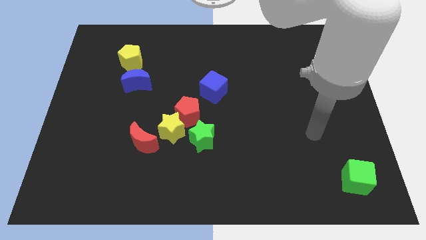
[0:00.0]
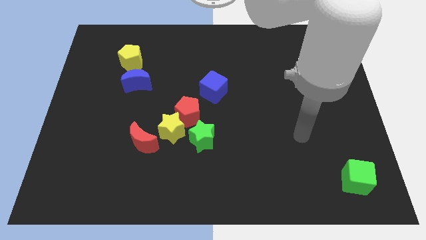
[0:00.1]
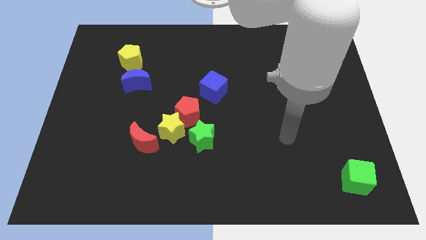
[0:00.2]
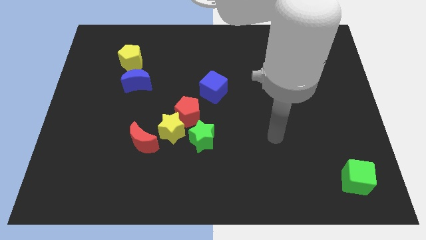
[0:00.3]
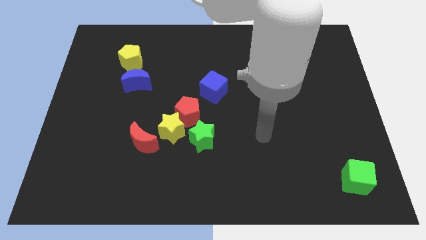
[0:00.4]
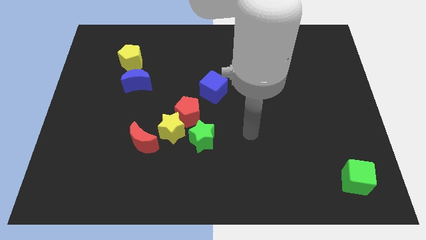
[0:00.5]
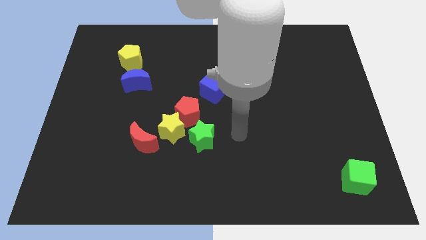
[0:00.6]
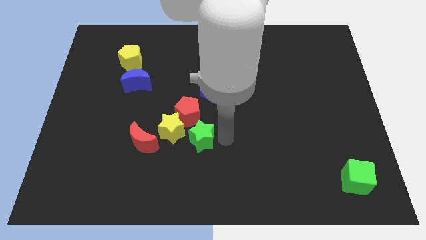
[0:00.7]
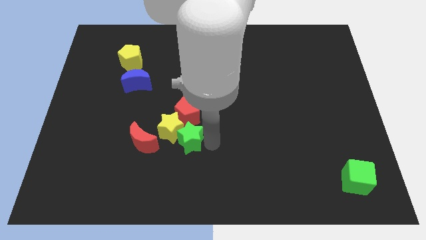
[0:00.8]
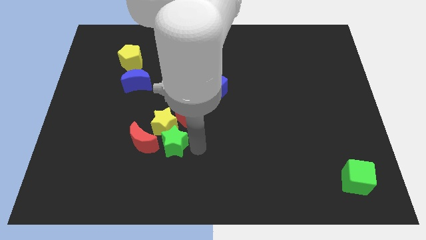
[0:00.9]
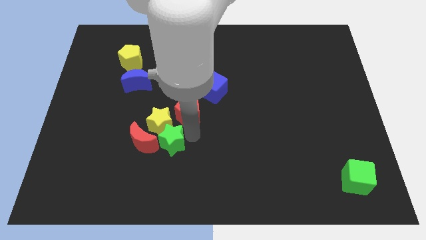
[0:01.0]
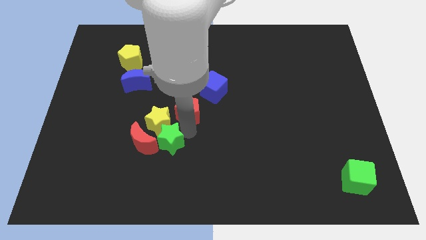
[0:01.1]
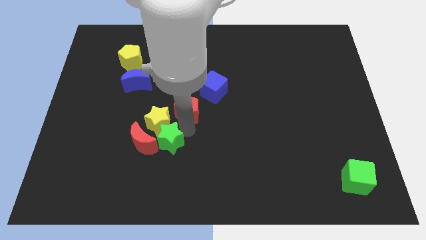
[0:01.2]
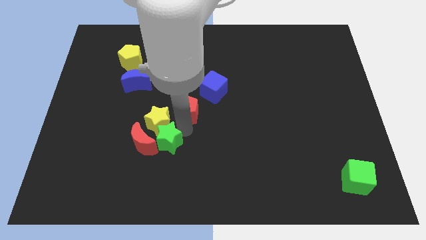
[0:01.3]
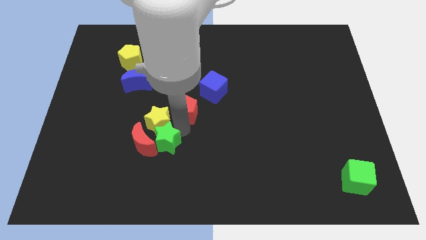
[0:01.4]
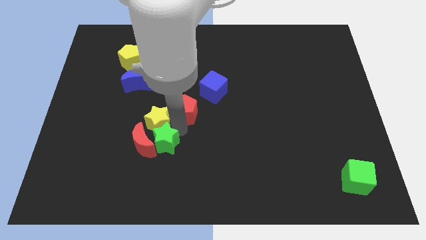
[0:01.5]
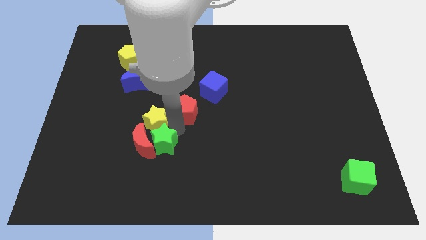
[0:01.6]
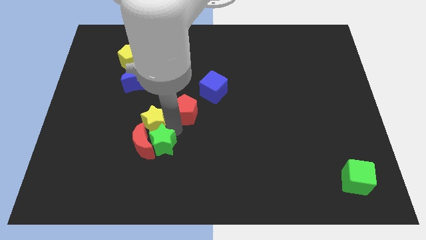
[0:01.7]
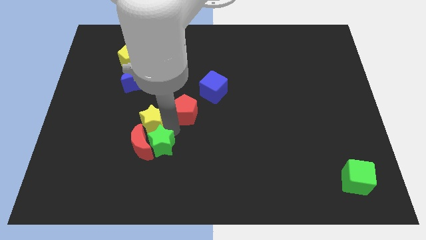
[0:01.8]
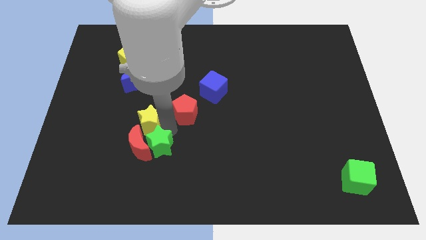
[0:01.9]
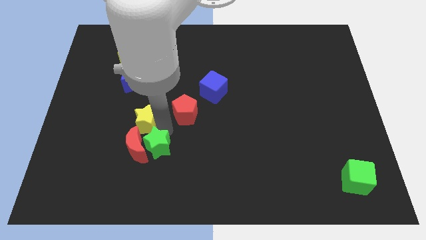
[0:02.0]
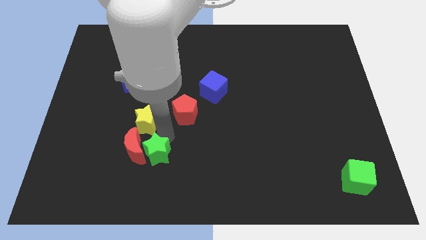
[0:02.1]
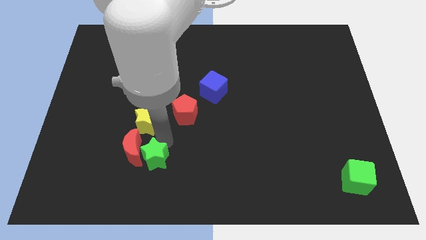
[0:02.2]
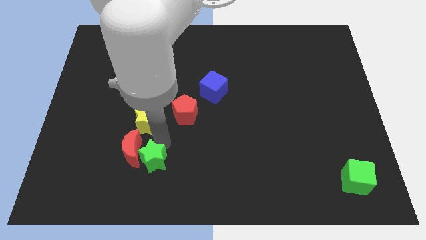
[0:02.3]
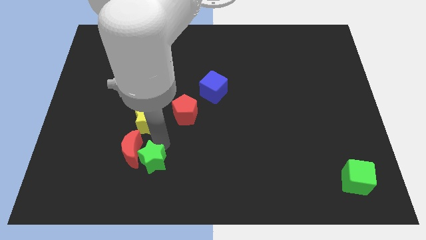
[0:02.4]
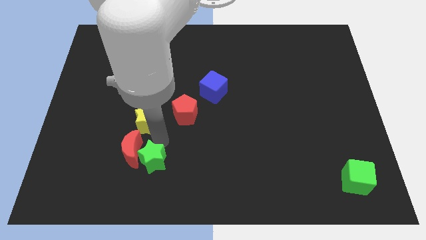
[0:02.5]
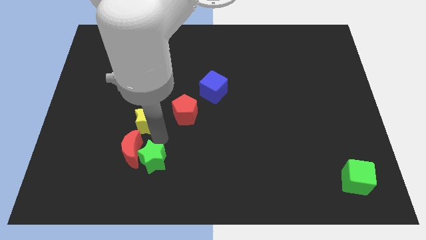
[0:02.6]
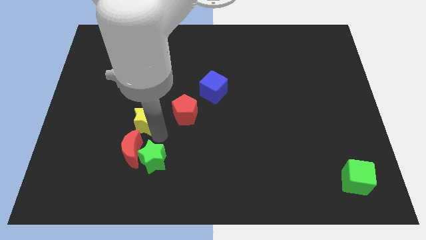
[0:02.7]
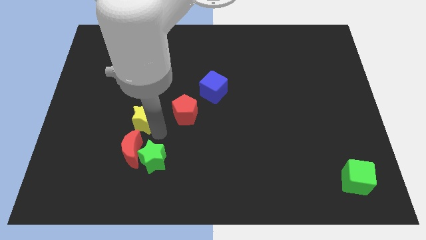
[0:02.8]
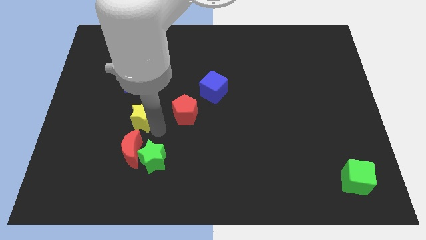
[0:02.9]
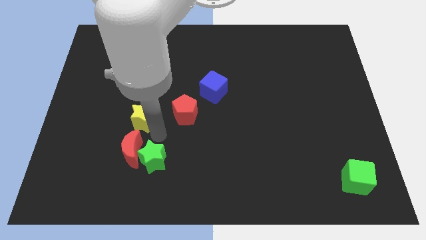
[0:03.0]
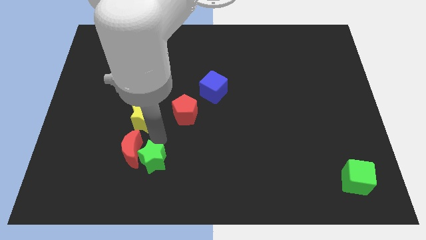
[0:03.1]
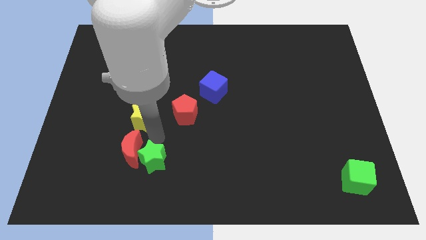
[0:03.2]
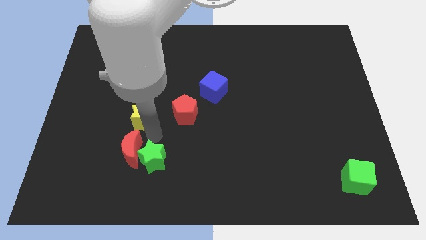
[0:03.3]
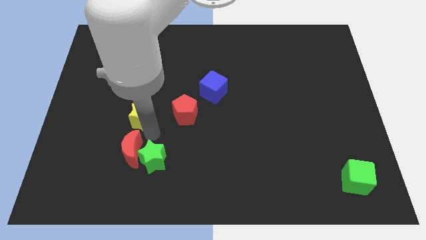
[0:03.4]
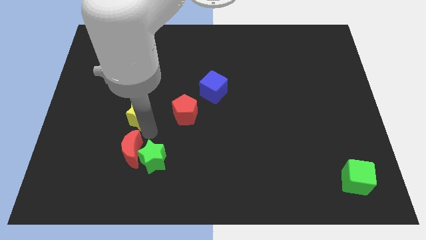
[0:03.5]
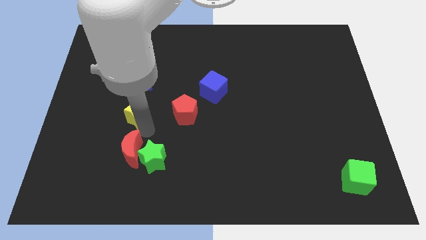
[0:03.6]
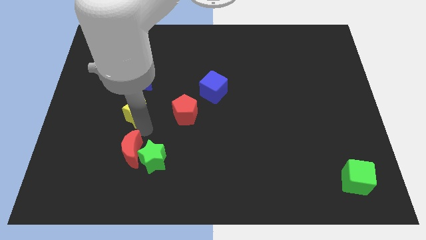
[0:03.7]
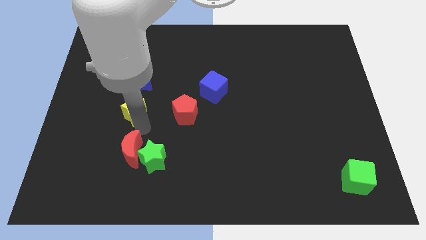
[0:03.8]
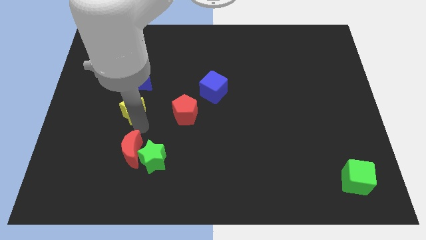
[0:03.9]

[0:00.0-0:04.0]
separate the yellow star from the group of blocks

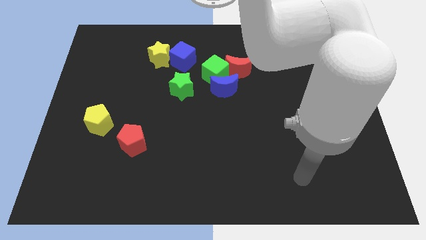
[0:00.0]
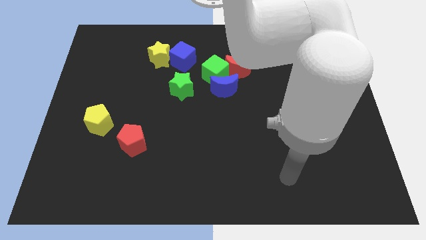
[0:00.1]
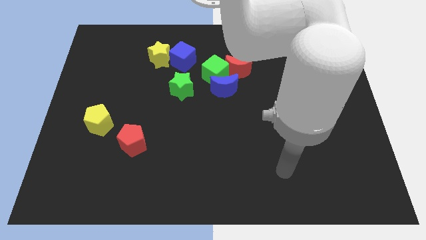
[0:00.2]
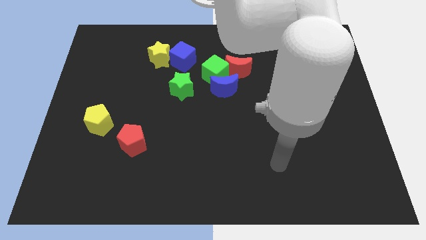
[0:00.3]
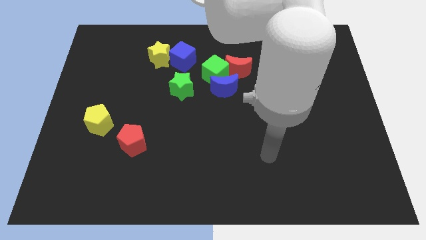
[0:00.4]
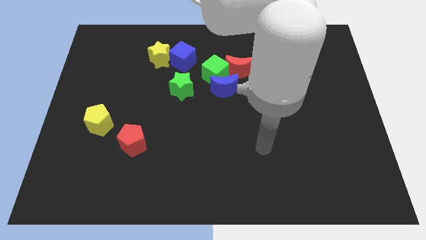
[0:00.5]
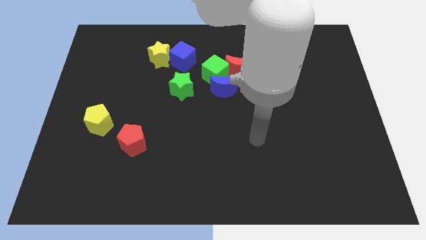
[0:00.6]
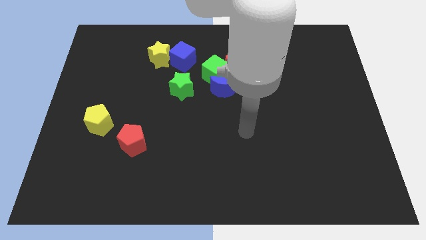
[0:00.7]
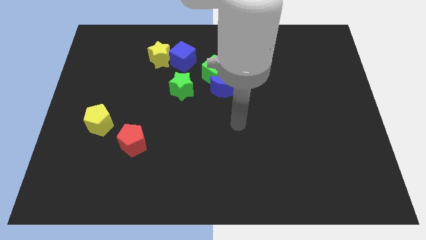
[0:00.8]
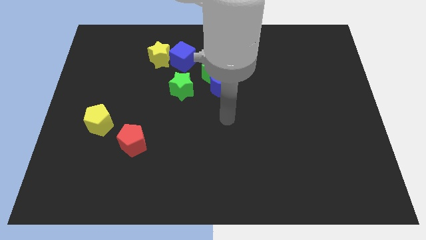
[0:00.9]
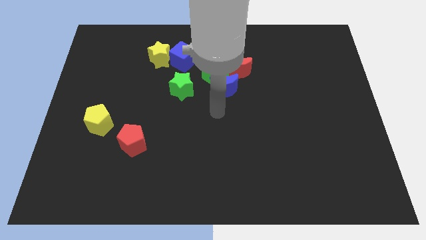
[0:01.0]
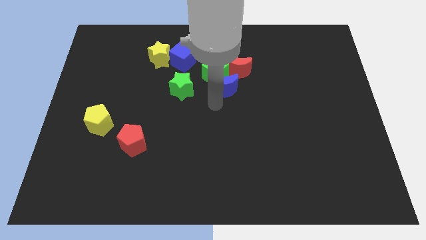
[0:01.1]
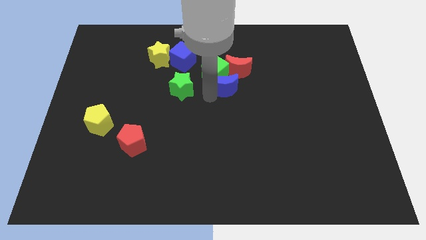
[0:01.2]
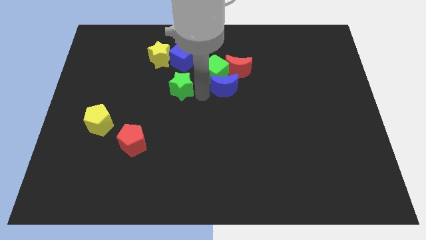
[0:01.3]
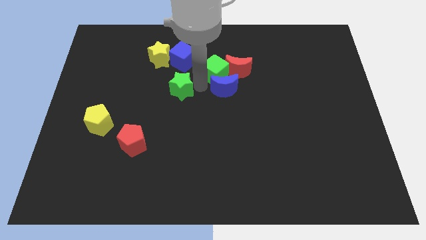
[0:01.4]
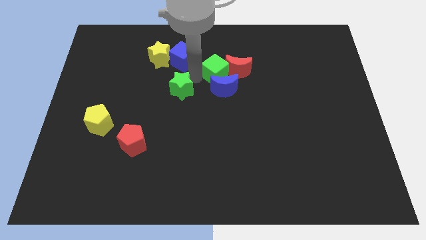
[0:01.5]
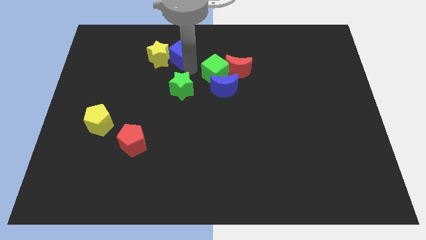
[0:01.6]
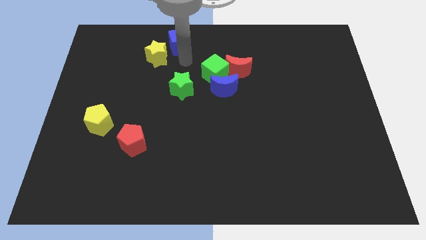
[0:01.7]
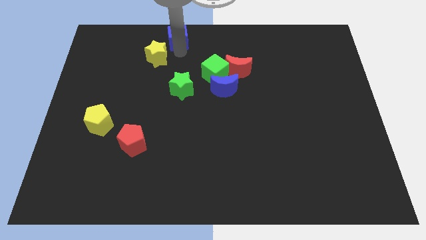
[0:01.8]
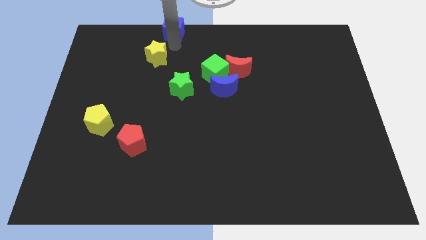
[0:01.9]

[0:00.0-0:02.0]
move the yellow star away from the blue cube

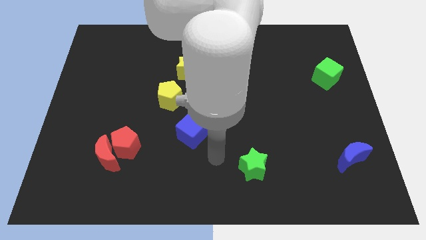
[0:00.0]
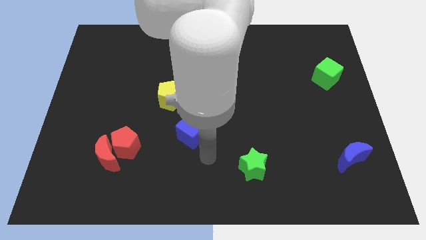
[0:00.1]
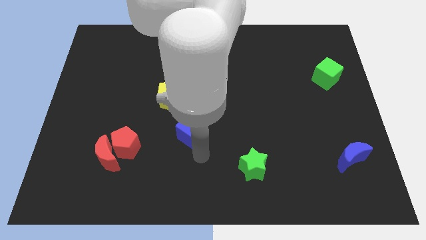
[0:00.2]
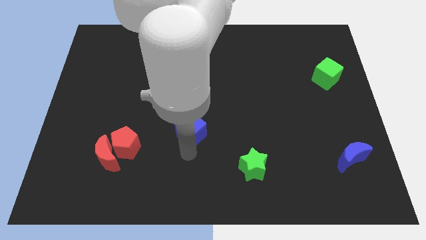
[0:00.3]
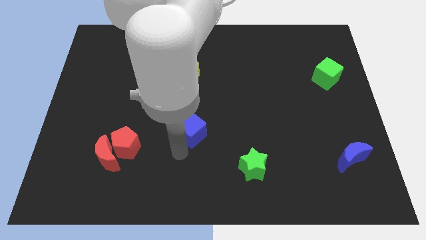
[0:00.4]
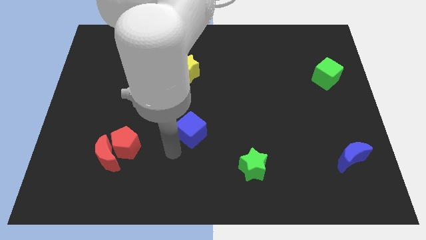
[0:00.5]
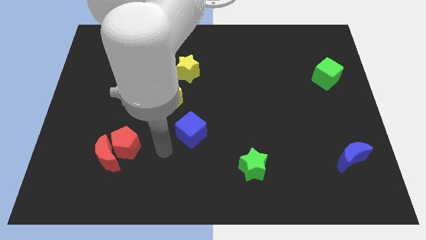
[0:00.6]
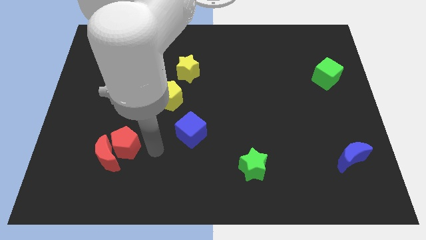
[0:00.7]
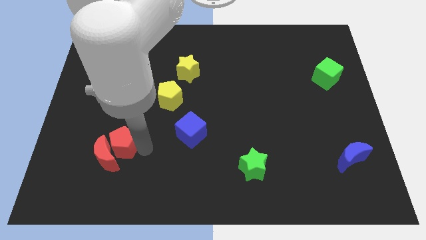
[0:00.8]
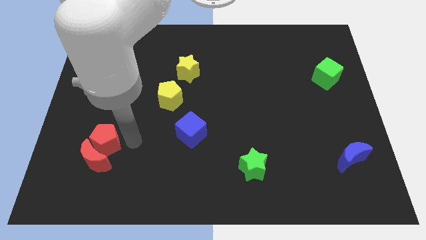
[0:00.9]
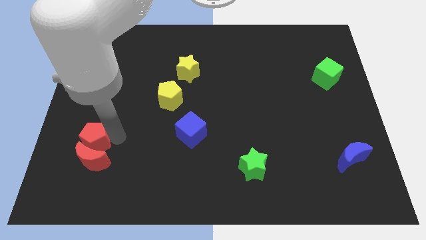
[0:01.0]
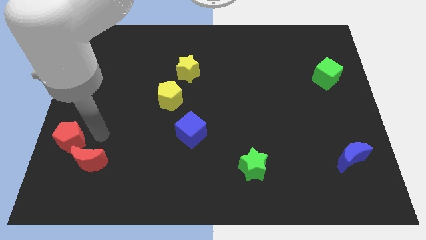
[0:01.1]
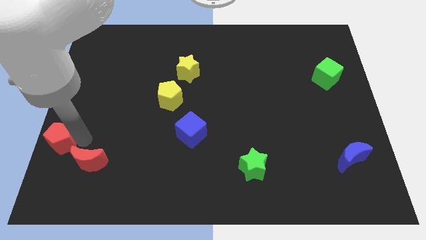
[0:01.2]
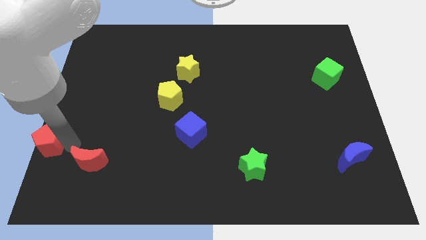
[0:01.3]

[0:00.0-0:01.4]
pull the red moon apart from the red pentagon

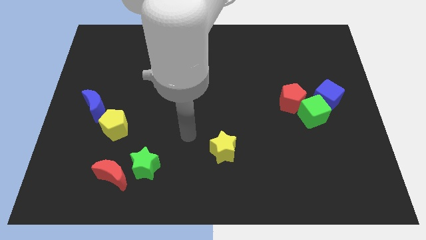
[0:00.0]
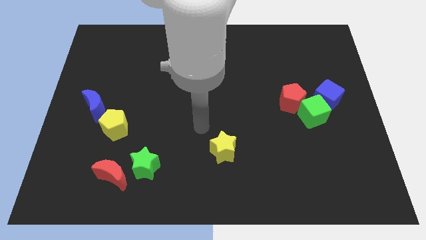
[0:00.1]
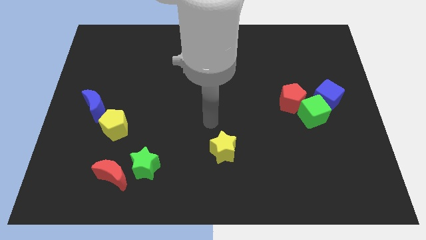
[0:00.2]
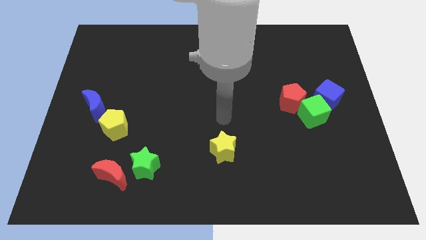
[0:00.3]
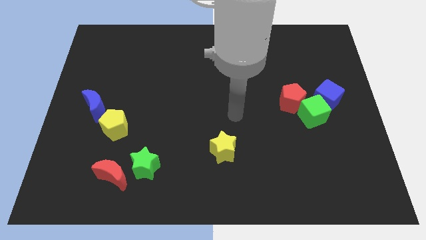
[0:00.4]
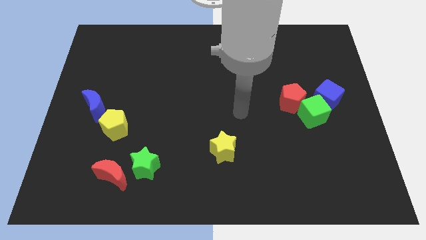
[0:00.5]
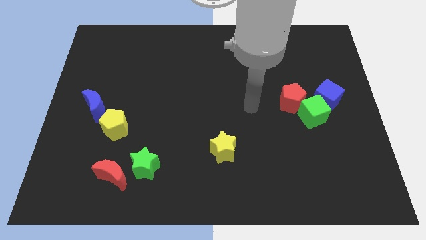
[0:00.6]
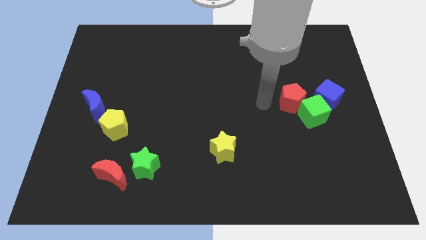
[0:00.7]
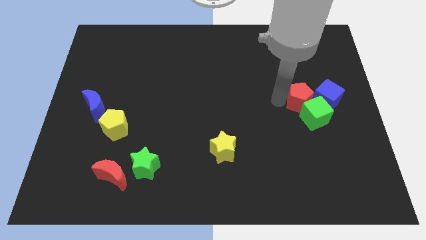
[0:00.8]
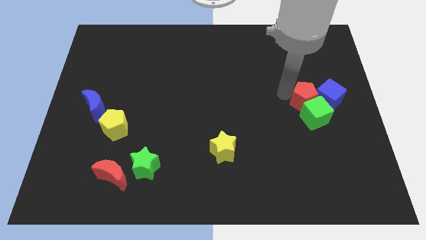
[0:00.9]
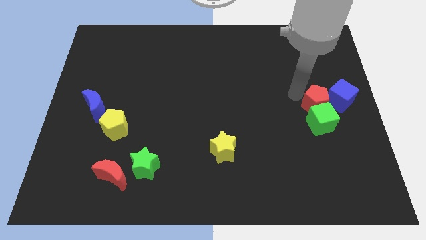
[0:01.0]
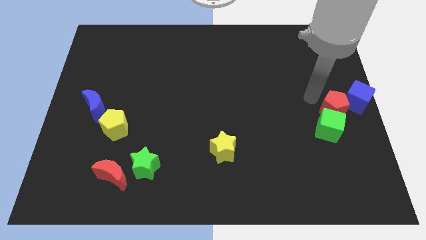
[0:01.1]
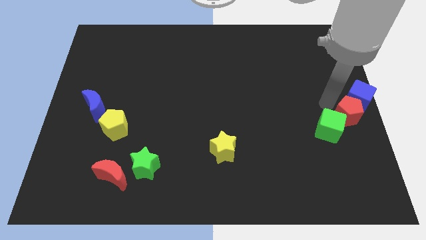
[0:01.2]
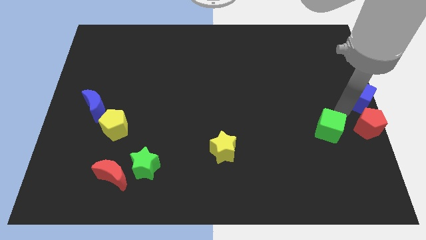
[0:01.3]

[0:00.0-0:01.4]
pull the green cube apart from the blue cube and red pentagon

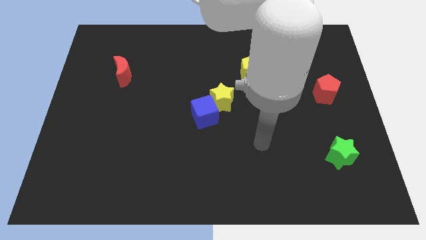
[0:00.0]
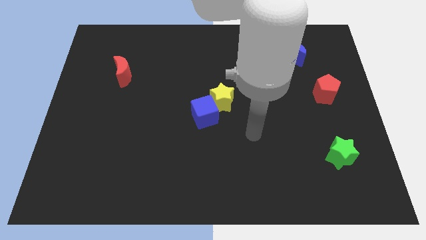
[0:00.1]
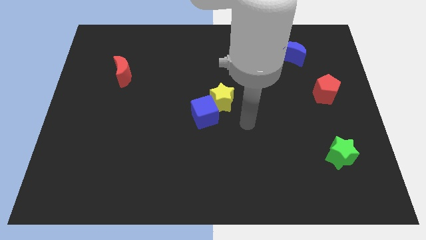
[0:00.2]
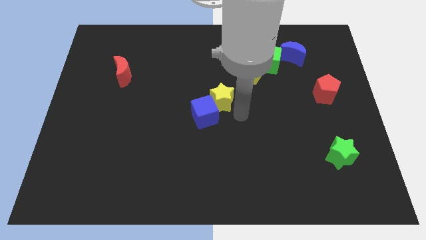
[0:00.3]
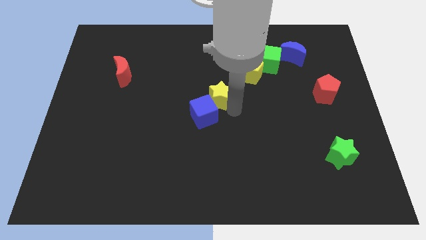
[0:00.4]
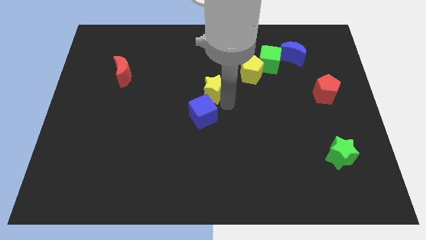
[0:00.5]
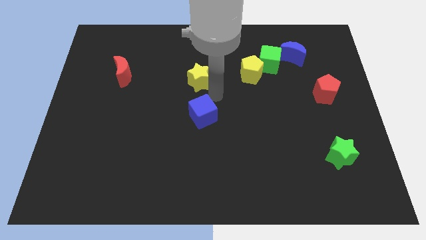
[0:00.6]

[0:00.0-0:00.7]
pull the blue cube apart from the yellow star

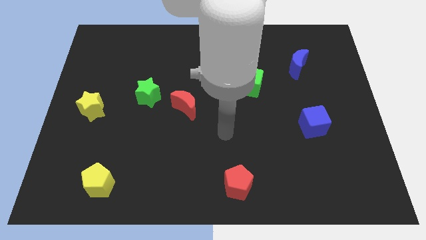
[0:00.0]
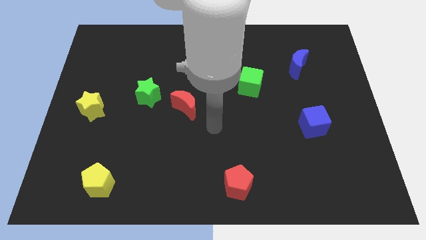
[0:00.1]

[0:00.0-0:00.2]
pull the red moon apart from the green star
